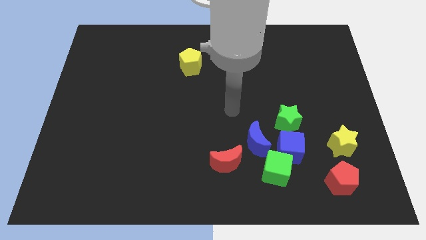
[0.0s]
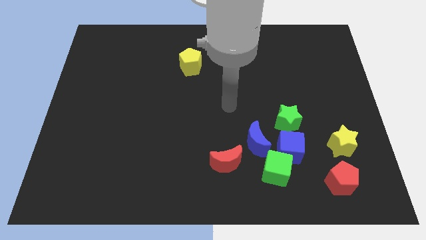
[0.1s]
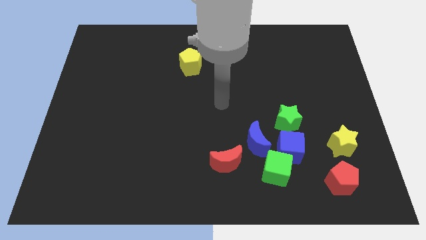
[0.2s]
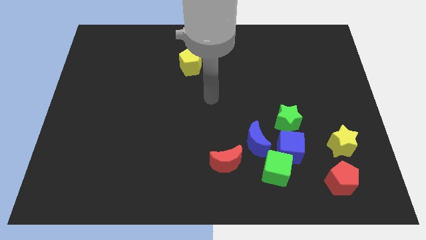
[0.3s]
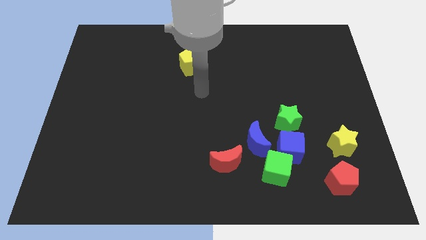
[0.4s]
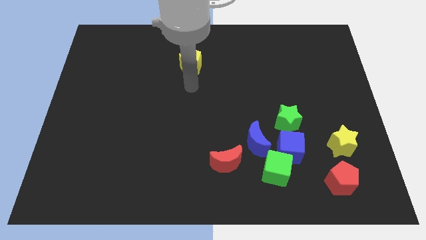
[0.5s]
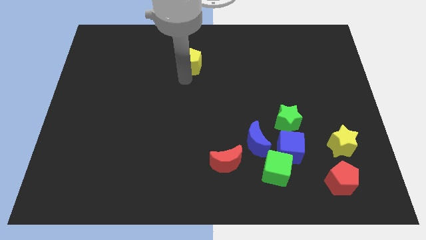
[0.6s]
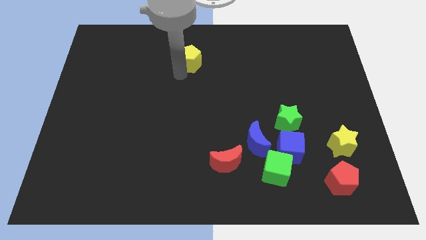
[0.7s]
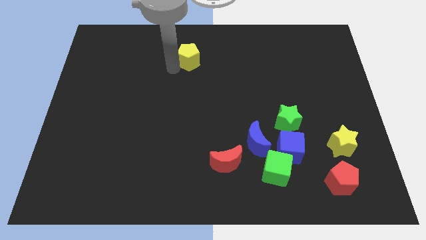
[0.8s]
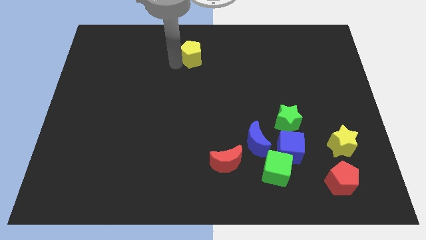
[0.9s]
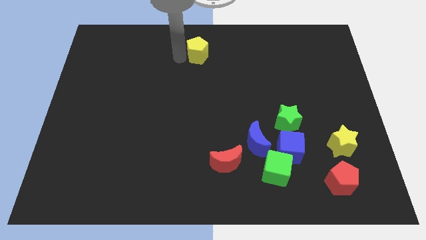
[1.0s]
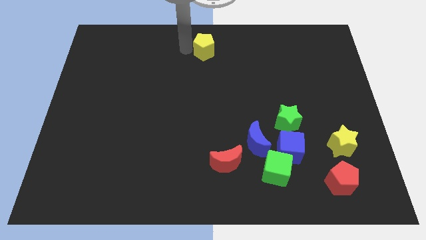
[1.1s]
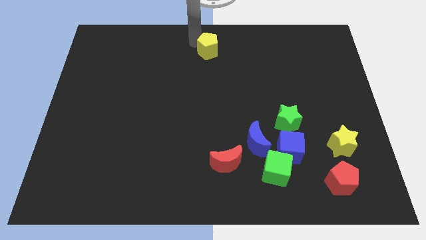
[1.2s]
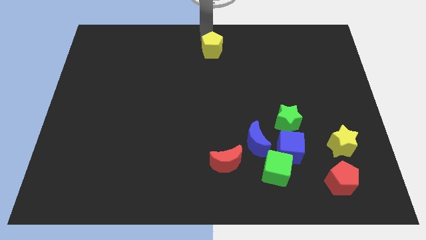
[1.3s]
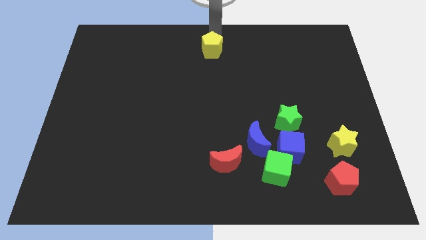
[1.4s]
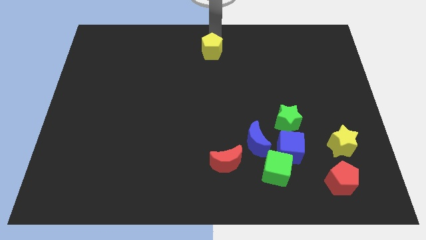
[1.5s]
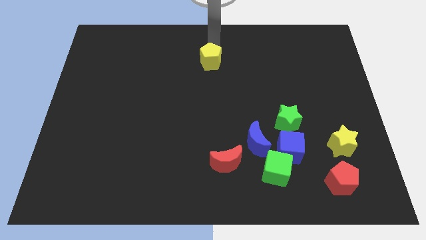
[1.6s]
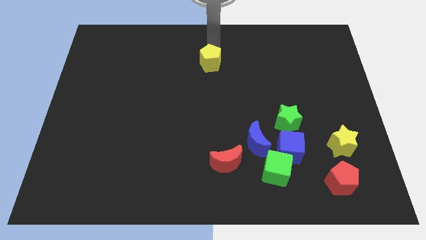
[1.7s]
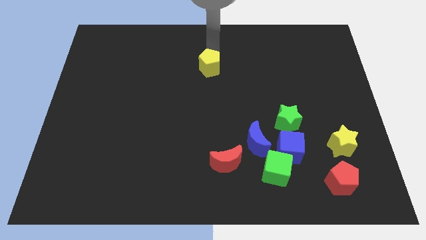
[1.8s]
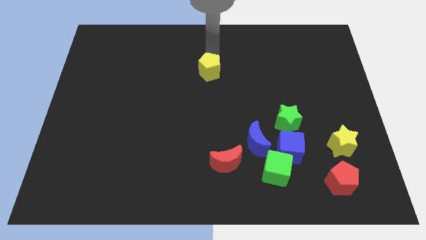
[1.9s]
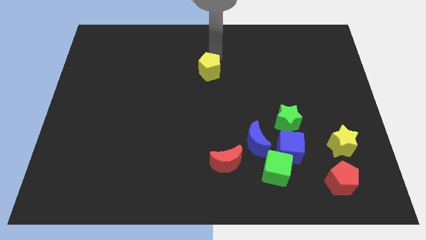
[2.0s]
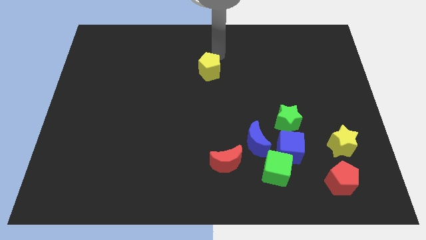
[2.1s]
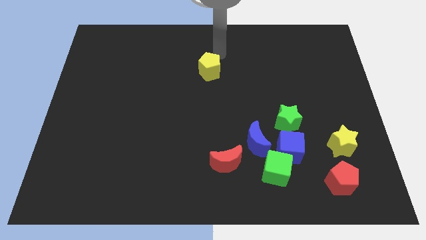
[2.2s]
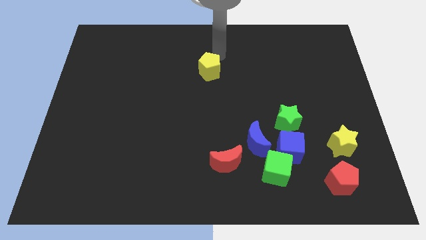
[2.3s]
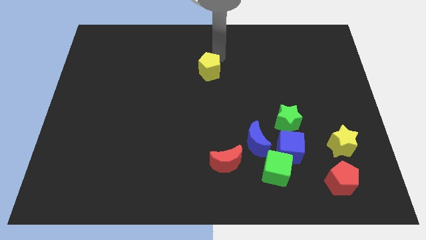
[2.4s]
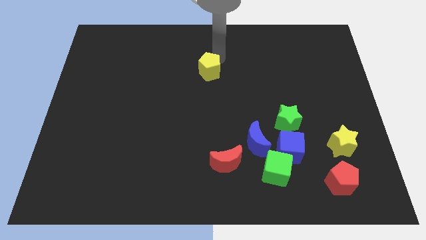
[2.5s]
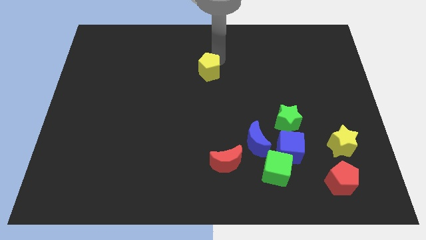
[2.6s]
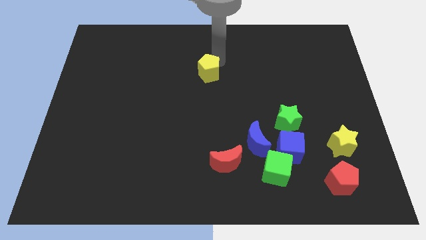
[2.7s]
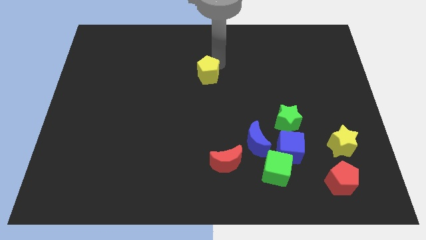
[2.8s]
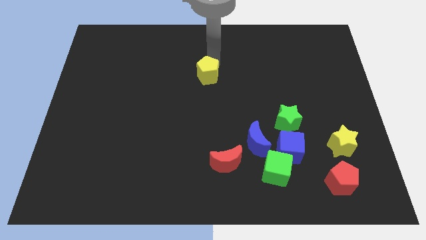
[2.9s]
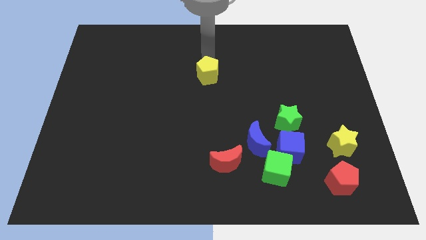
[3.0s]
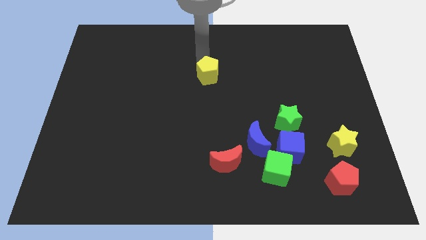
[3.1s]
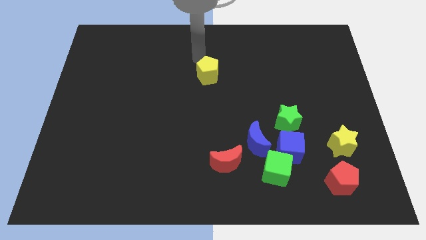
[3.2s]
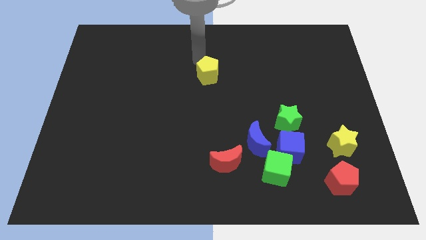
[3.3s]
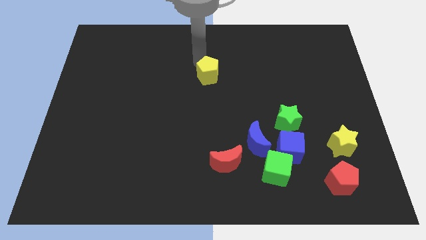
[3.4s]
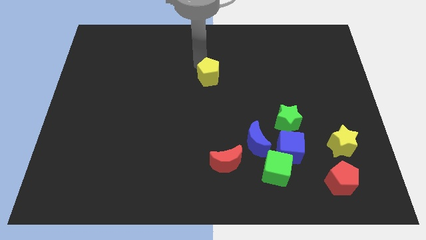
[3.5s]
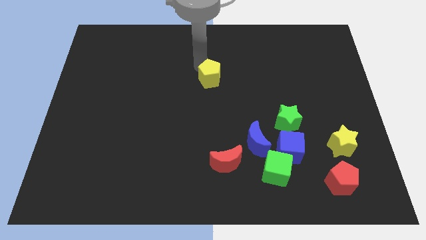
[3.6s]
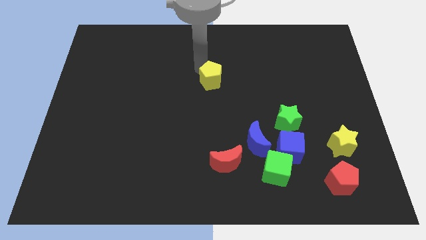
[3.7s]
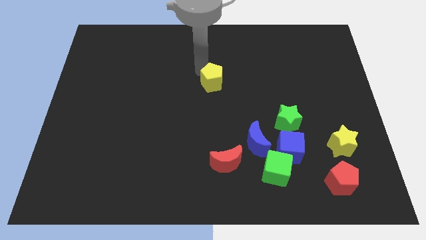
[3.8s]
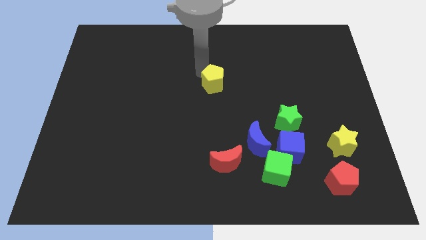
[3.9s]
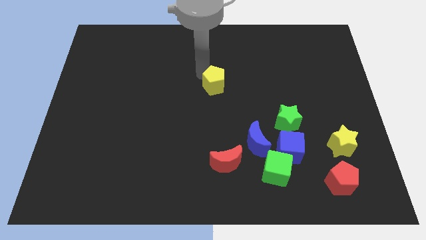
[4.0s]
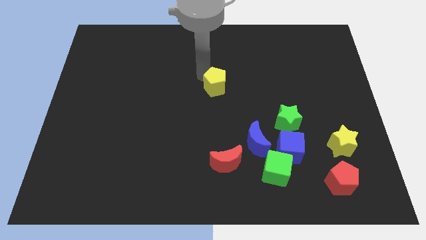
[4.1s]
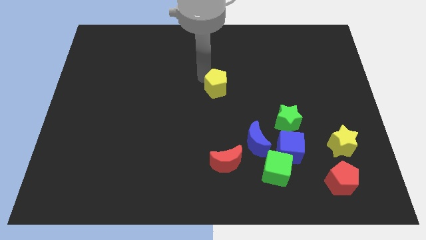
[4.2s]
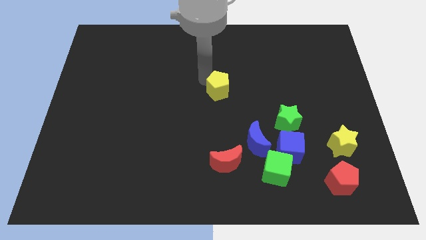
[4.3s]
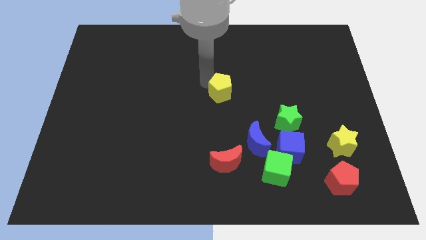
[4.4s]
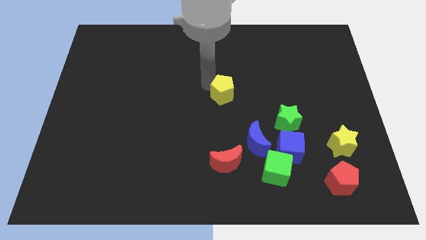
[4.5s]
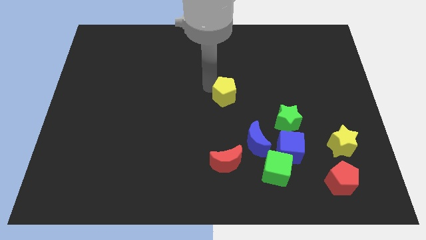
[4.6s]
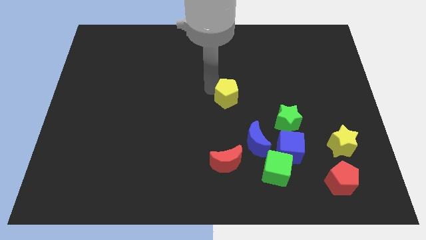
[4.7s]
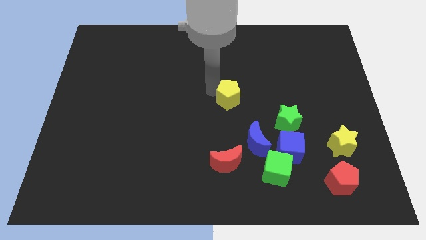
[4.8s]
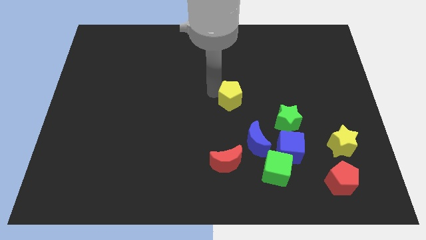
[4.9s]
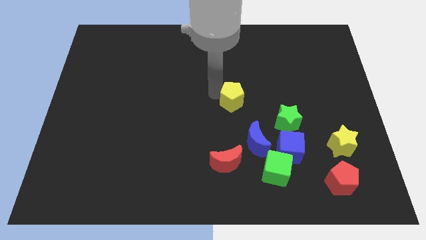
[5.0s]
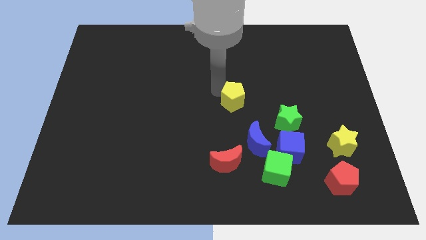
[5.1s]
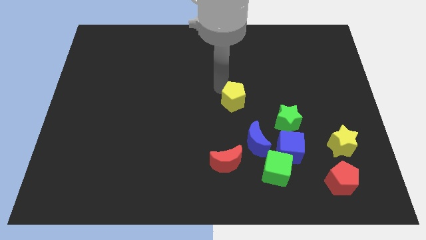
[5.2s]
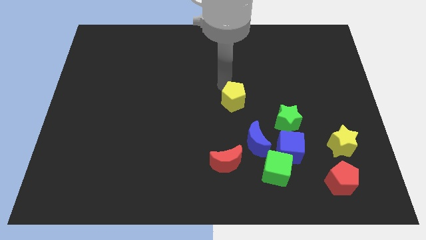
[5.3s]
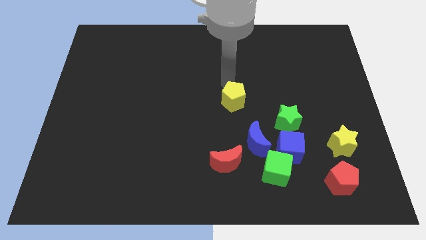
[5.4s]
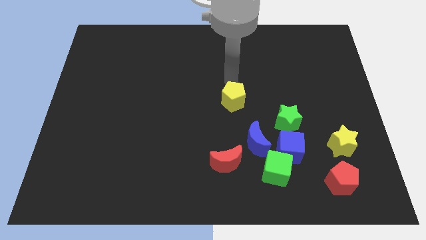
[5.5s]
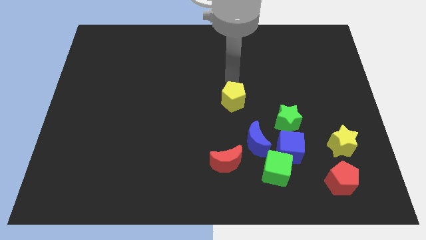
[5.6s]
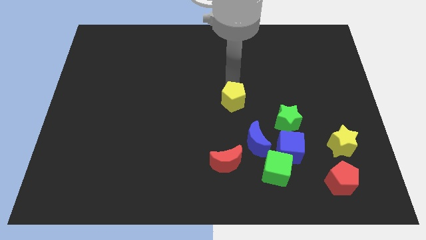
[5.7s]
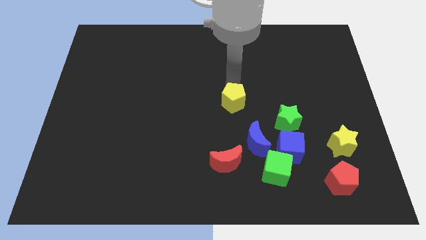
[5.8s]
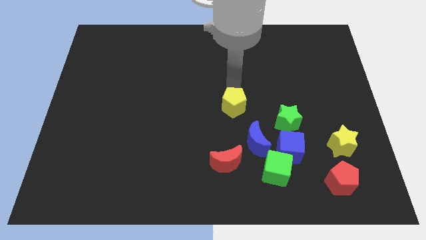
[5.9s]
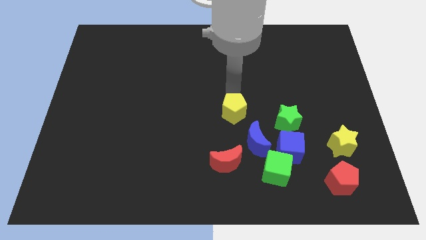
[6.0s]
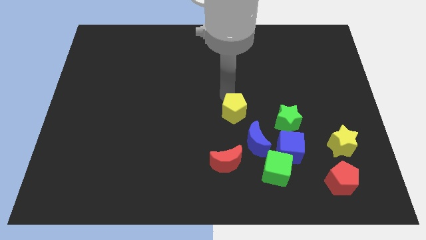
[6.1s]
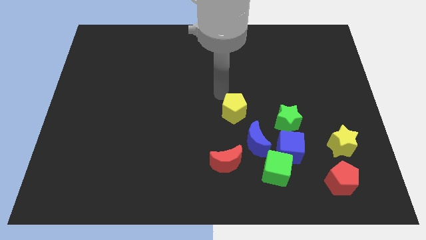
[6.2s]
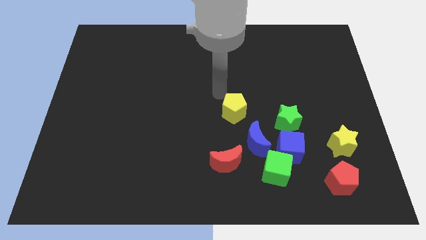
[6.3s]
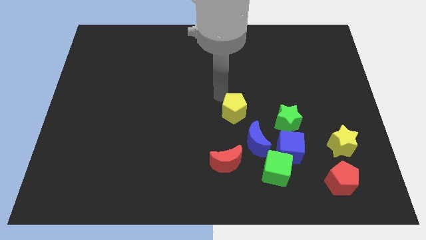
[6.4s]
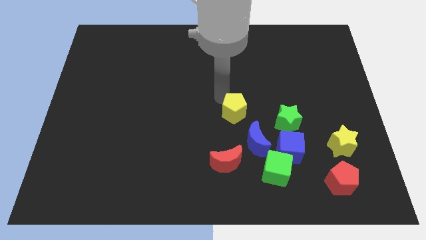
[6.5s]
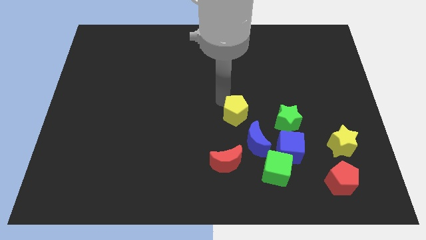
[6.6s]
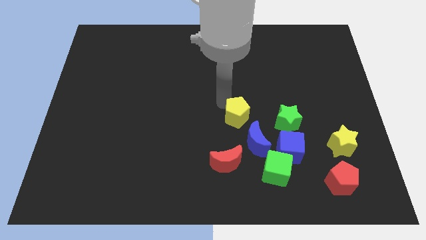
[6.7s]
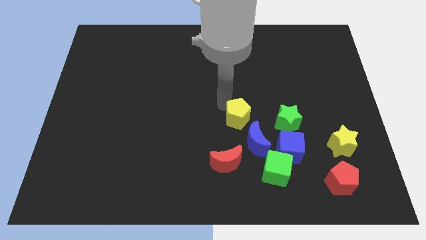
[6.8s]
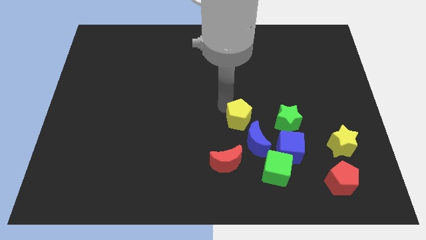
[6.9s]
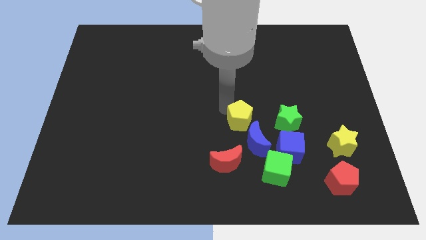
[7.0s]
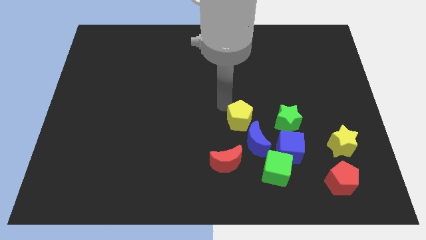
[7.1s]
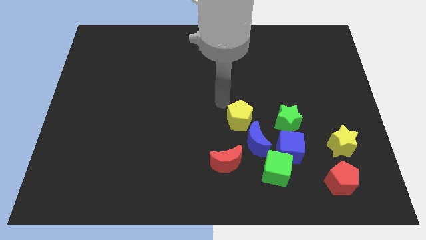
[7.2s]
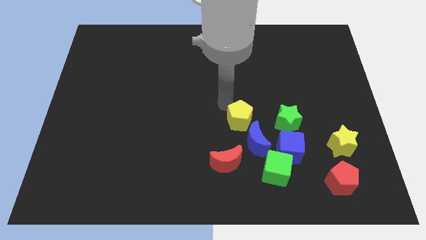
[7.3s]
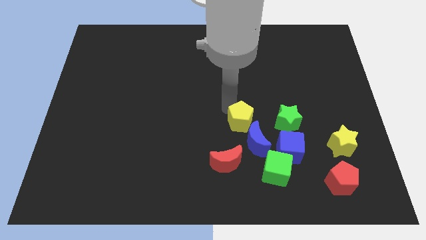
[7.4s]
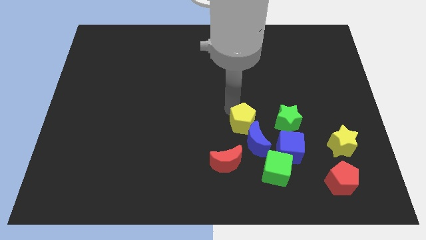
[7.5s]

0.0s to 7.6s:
move the yellow pentagon next to the blue moon
